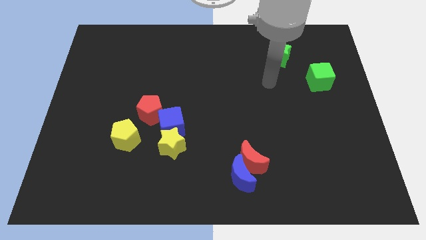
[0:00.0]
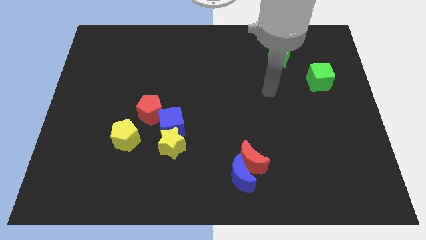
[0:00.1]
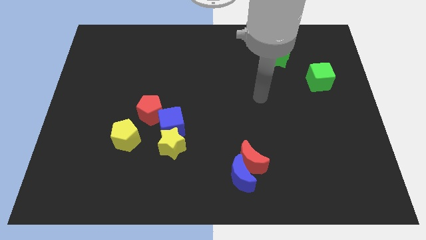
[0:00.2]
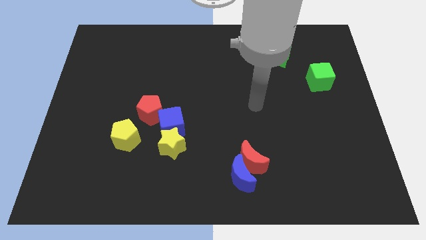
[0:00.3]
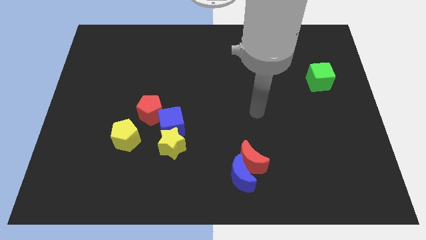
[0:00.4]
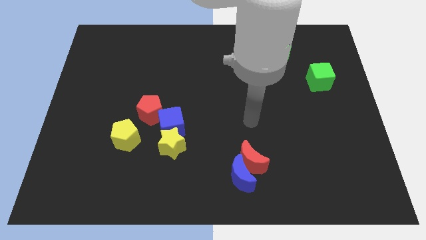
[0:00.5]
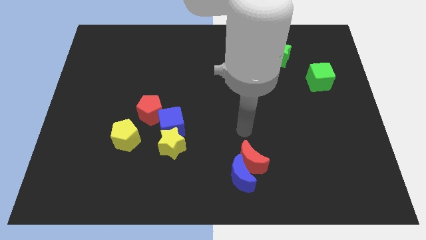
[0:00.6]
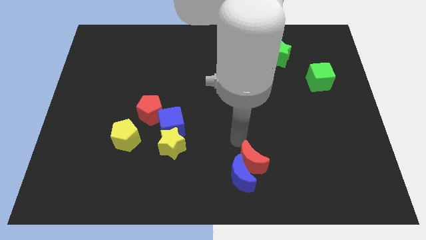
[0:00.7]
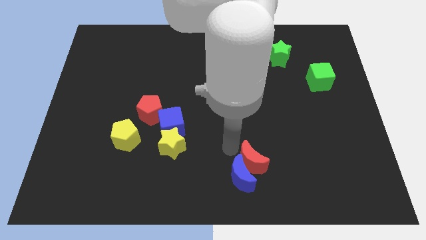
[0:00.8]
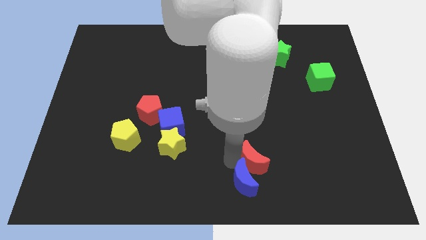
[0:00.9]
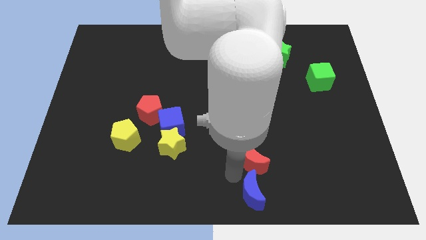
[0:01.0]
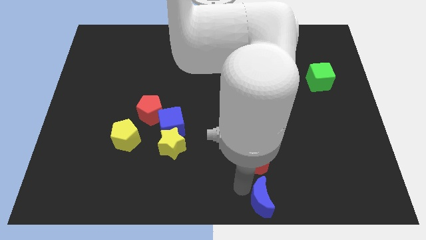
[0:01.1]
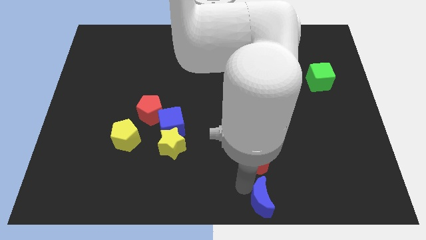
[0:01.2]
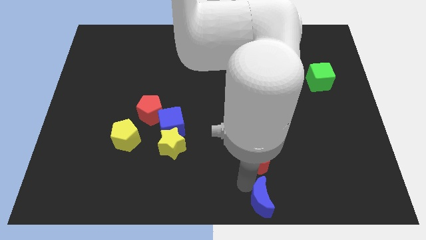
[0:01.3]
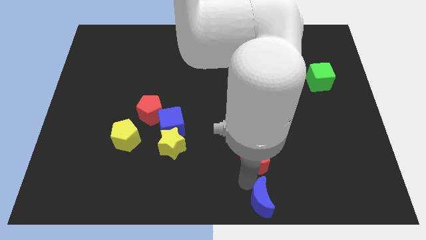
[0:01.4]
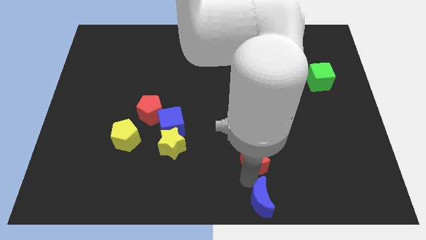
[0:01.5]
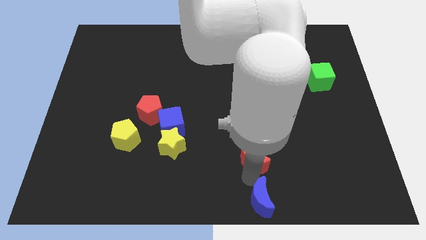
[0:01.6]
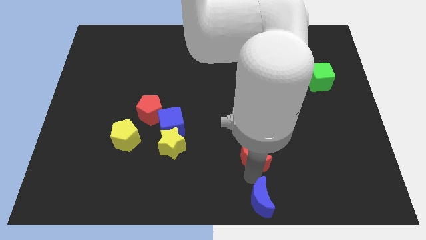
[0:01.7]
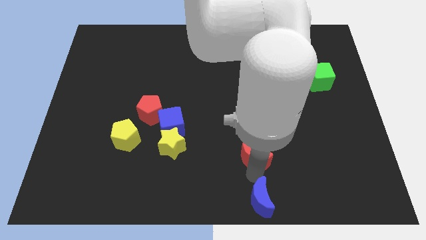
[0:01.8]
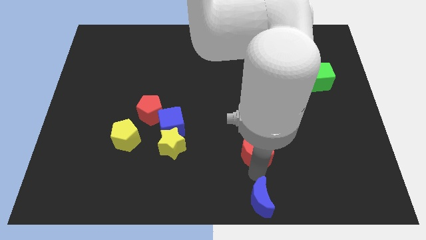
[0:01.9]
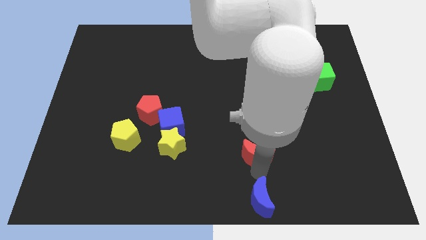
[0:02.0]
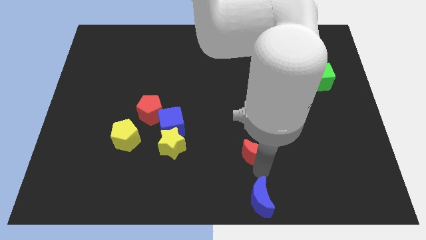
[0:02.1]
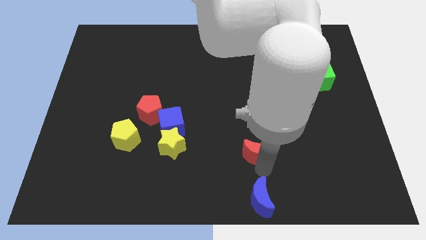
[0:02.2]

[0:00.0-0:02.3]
move the red moon away from the blue moon

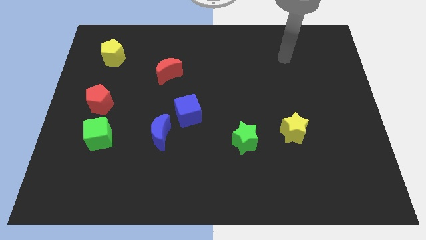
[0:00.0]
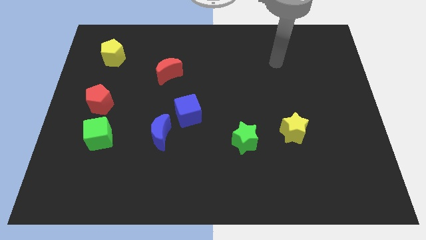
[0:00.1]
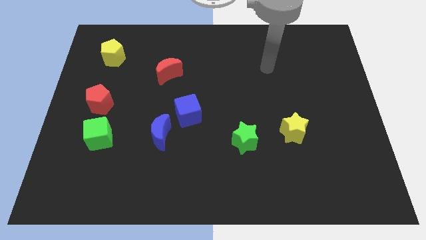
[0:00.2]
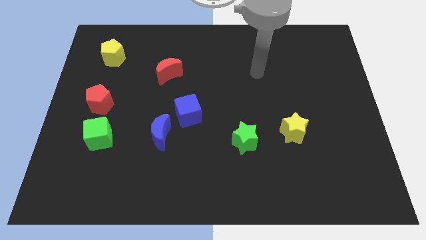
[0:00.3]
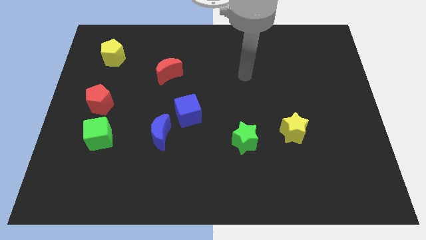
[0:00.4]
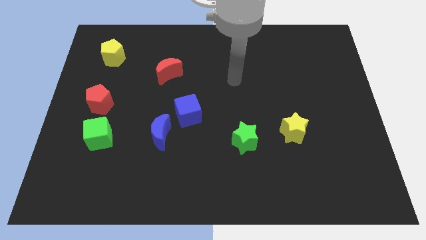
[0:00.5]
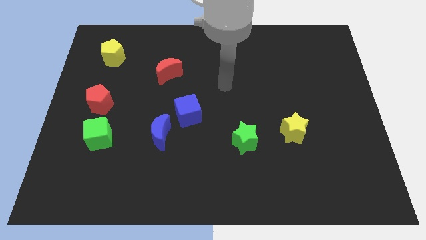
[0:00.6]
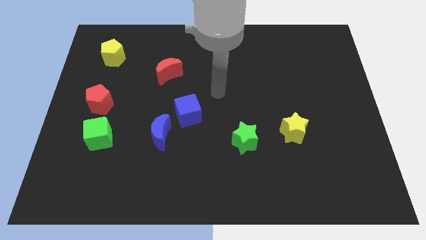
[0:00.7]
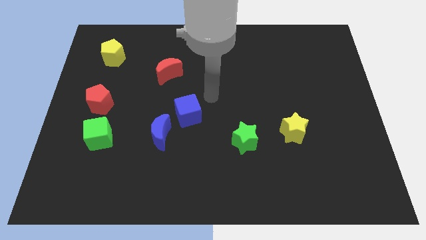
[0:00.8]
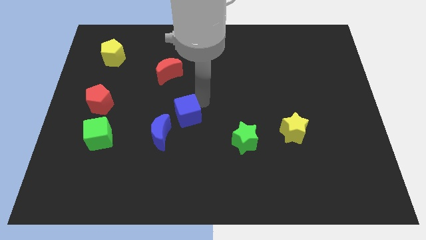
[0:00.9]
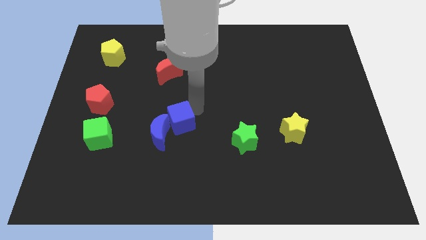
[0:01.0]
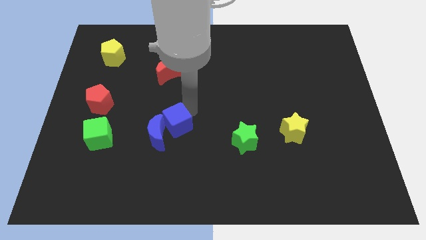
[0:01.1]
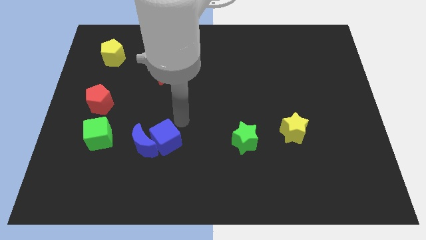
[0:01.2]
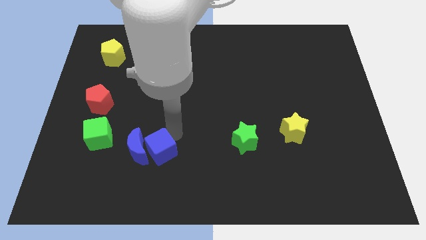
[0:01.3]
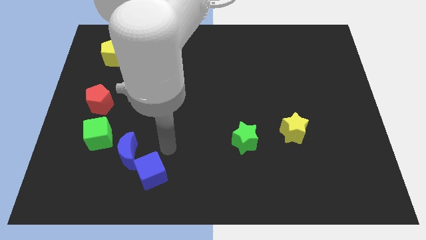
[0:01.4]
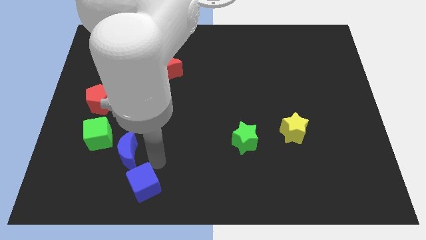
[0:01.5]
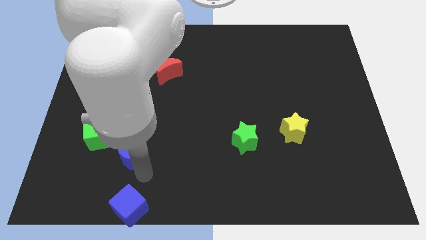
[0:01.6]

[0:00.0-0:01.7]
move the blue moon away from the blue cube

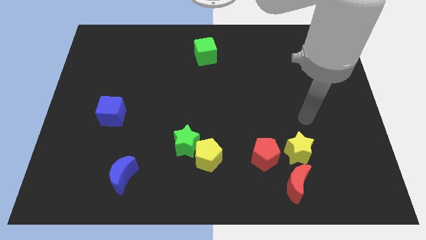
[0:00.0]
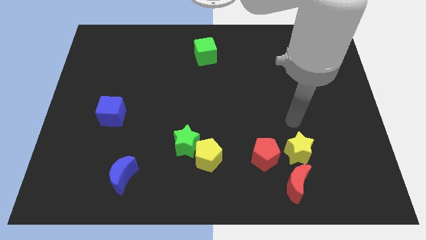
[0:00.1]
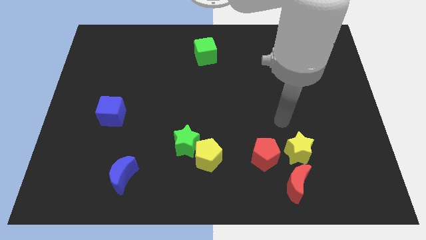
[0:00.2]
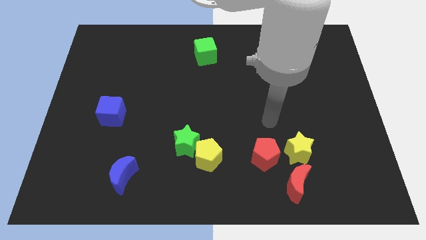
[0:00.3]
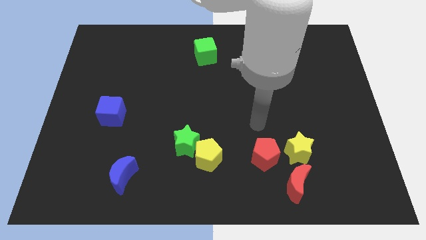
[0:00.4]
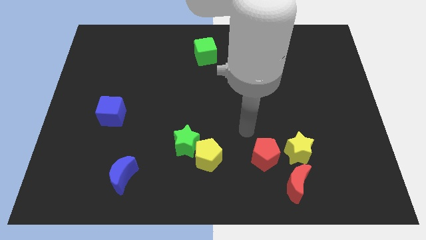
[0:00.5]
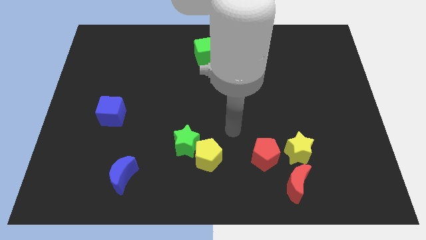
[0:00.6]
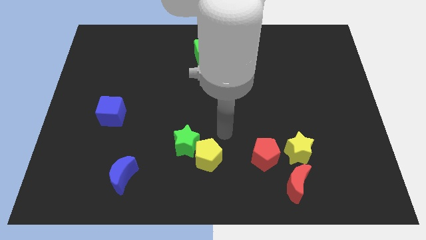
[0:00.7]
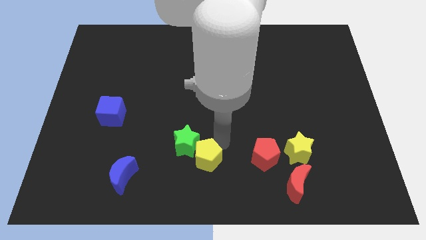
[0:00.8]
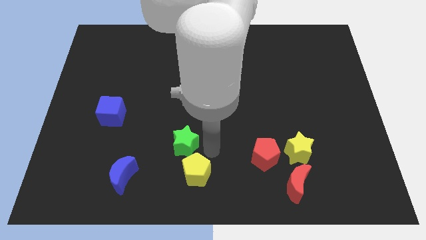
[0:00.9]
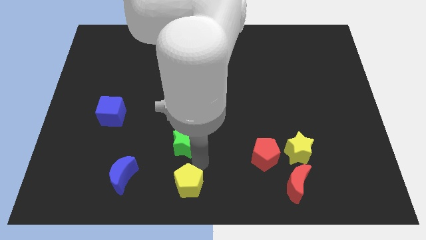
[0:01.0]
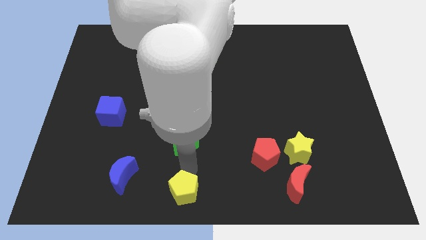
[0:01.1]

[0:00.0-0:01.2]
pull the green star apart from the yellow pentagon

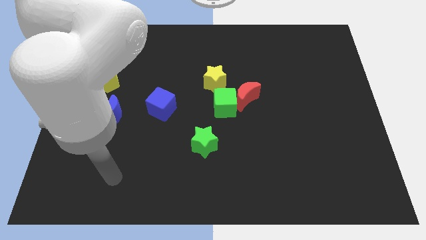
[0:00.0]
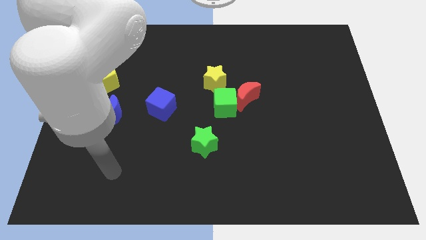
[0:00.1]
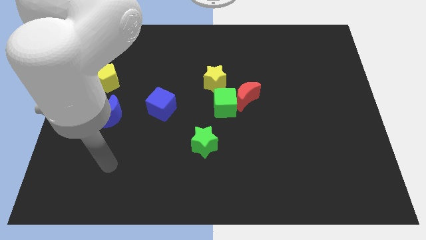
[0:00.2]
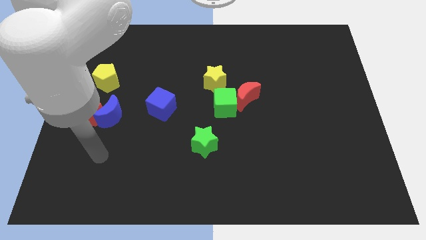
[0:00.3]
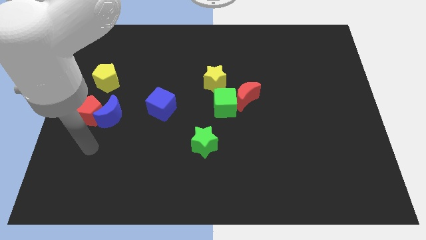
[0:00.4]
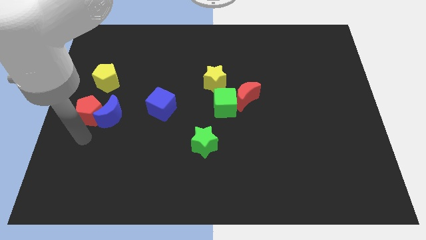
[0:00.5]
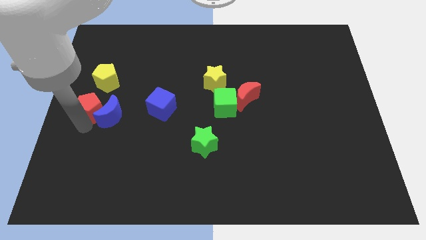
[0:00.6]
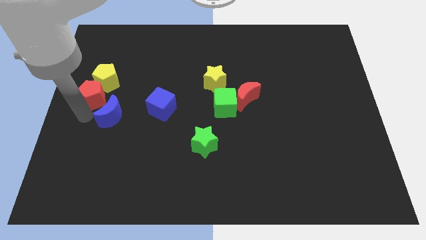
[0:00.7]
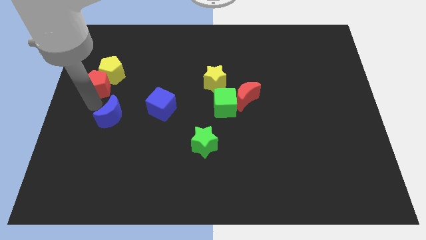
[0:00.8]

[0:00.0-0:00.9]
separate the blue moon from the red pentagon

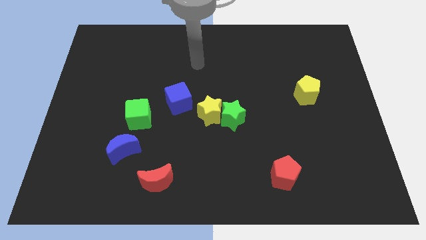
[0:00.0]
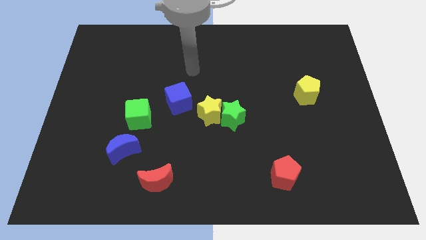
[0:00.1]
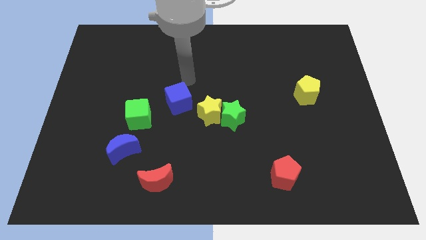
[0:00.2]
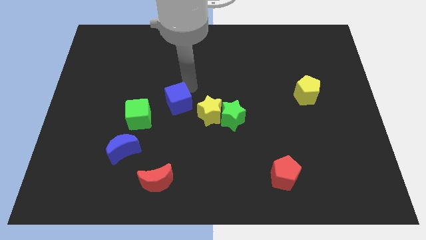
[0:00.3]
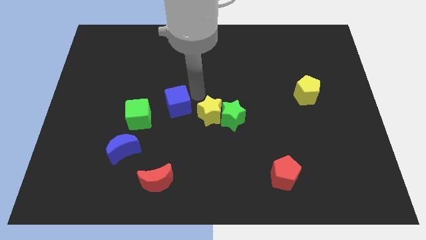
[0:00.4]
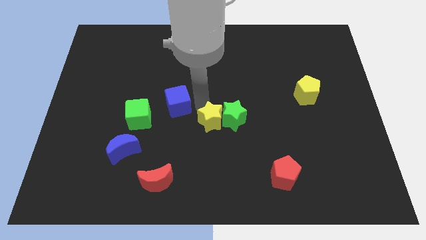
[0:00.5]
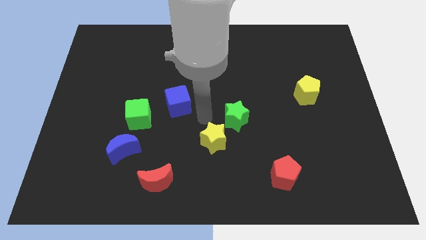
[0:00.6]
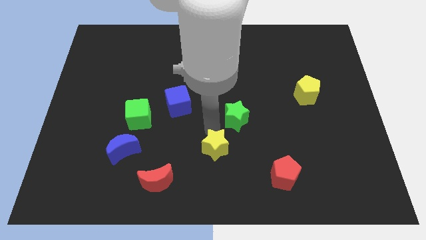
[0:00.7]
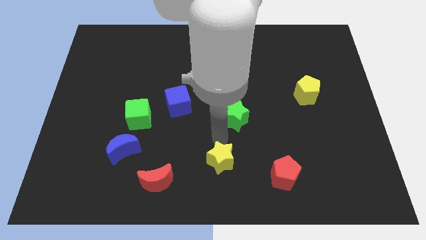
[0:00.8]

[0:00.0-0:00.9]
separate the green star from the yellow star

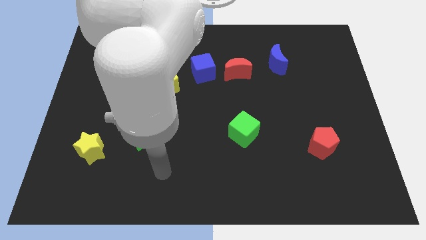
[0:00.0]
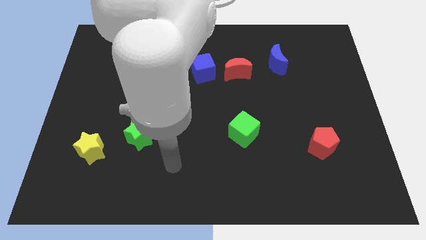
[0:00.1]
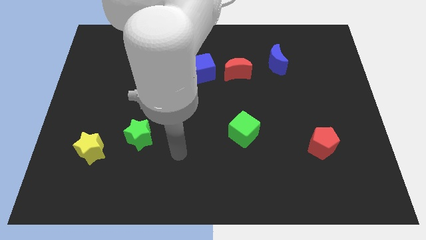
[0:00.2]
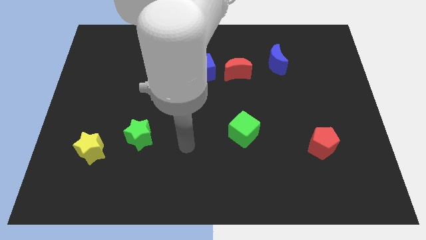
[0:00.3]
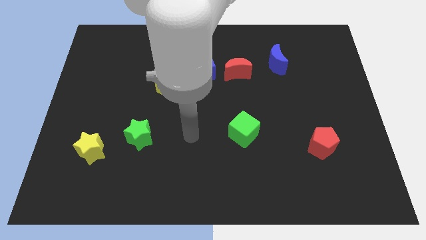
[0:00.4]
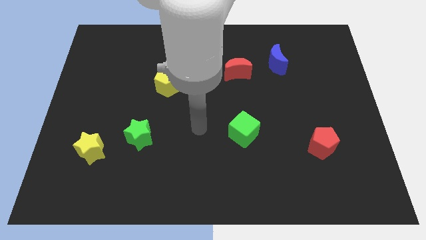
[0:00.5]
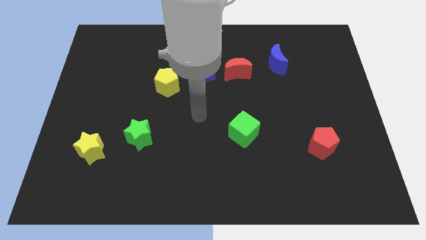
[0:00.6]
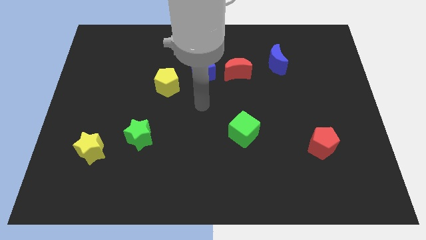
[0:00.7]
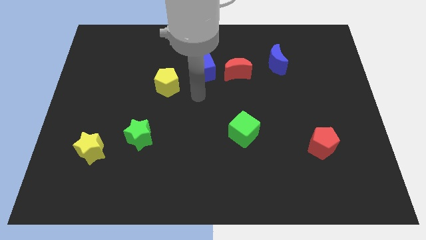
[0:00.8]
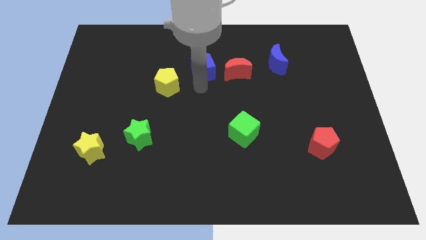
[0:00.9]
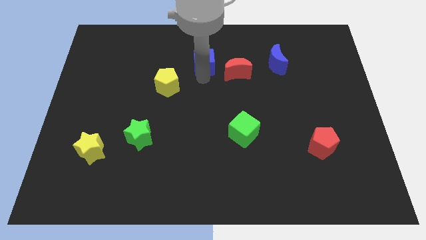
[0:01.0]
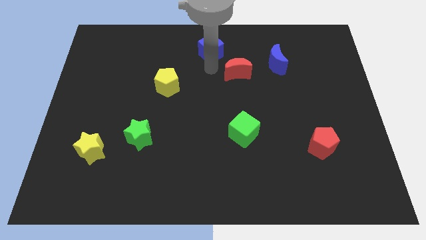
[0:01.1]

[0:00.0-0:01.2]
move the red moon away from the blue cube

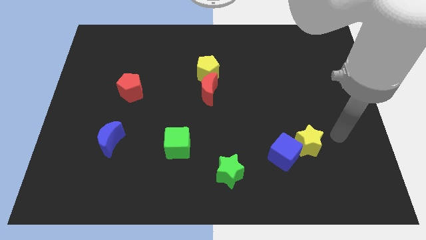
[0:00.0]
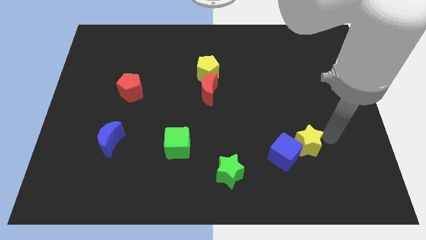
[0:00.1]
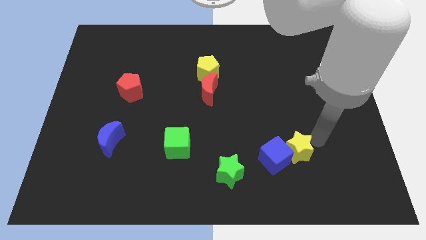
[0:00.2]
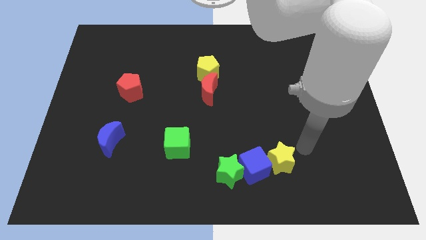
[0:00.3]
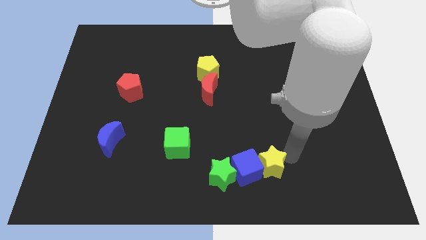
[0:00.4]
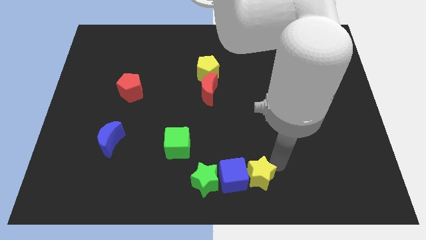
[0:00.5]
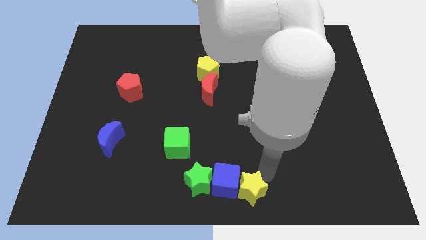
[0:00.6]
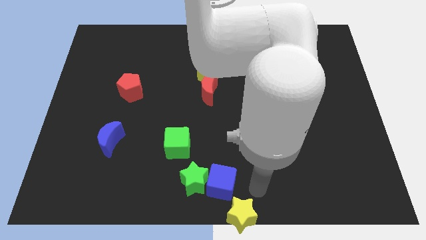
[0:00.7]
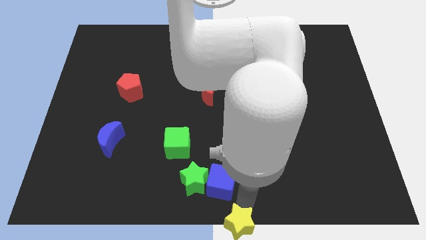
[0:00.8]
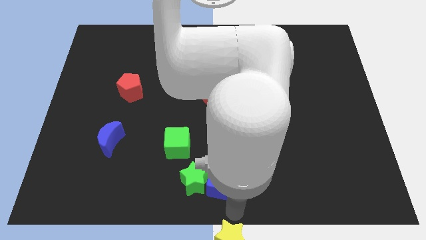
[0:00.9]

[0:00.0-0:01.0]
move the blue cube away from the yellow star

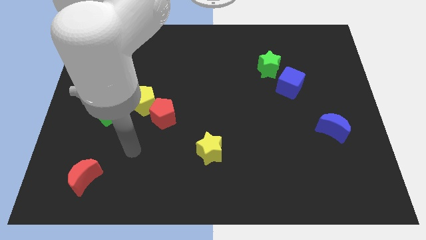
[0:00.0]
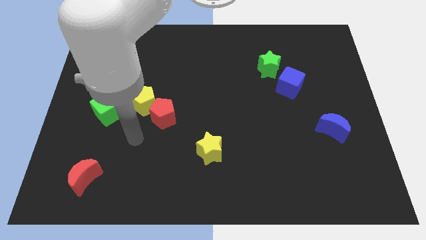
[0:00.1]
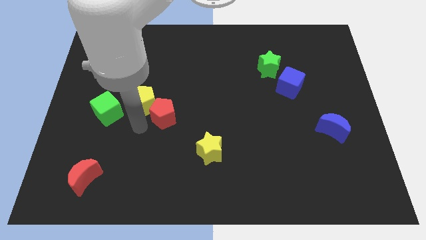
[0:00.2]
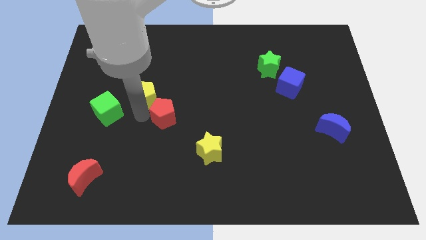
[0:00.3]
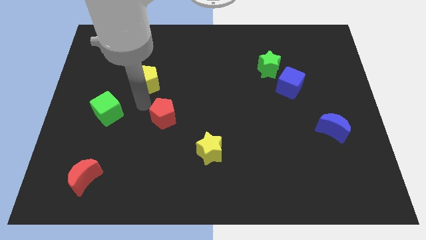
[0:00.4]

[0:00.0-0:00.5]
separate the red pentagon from the yellow pentagon
